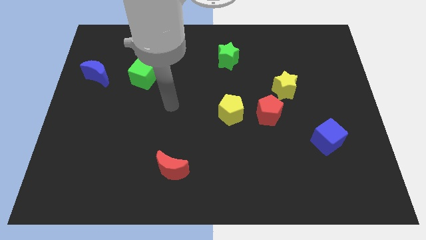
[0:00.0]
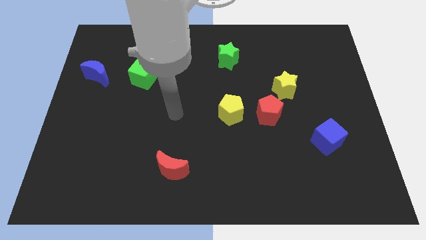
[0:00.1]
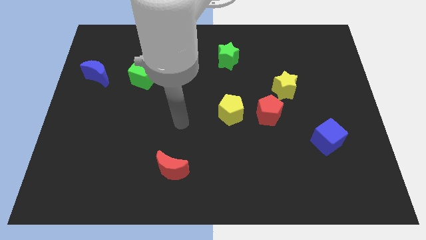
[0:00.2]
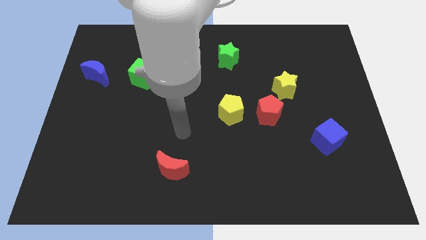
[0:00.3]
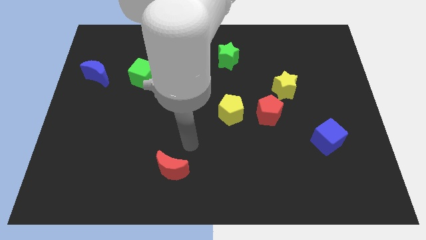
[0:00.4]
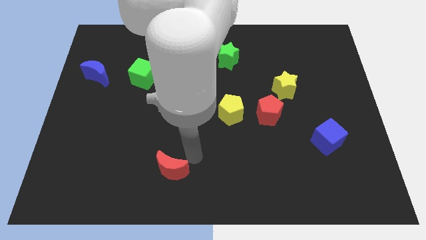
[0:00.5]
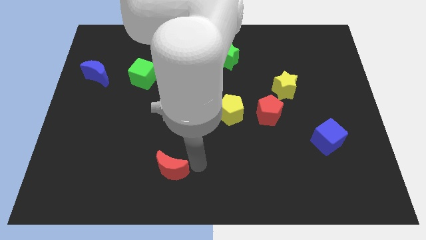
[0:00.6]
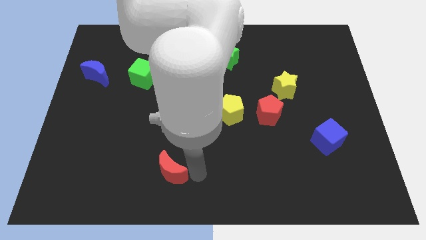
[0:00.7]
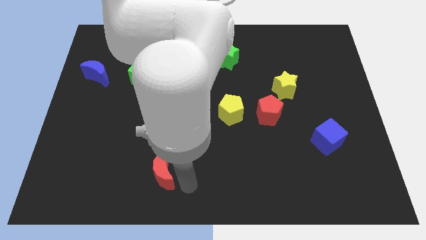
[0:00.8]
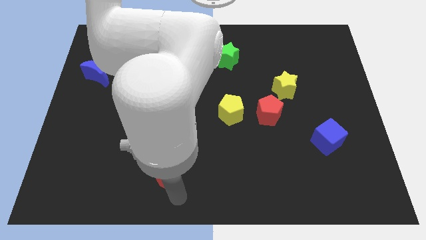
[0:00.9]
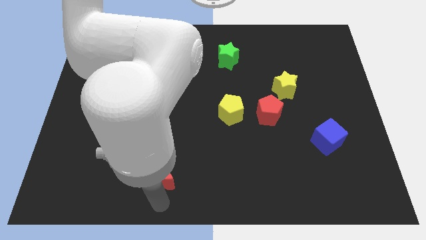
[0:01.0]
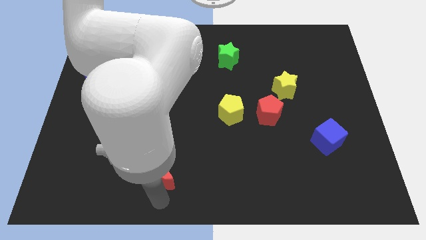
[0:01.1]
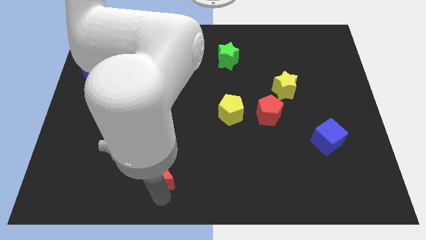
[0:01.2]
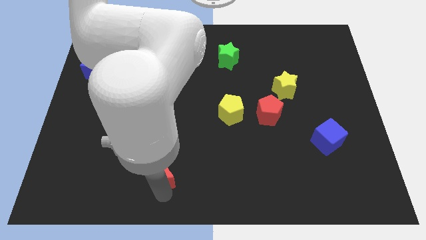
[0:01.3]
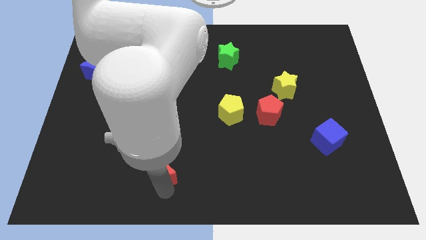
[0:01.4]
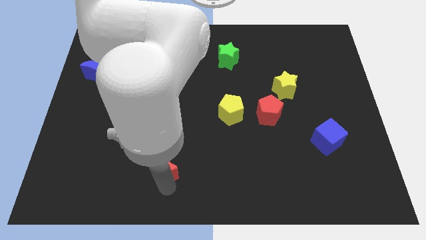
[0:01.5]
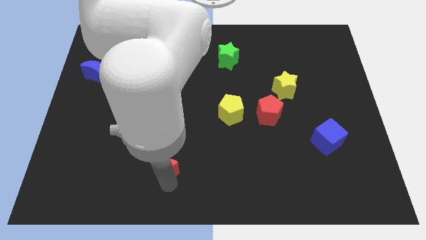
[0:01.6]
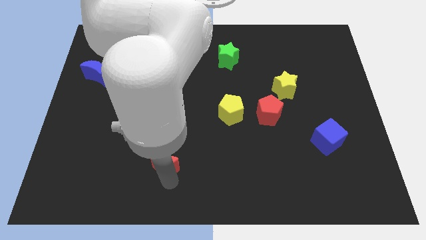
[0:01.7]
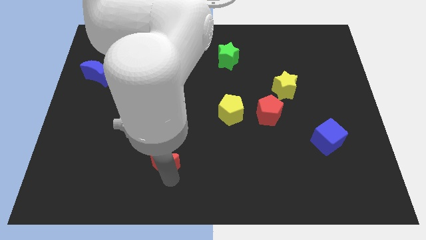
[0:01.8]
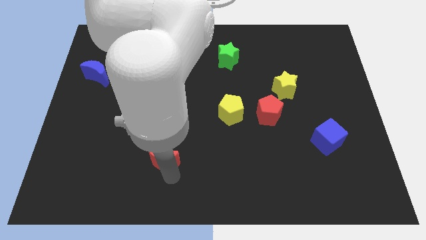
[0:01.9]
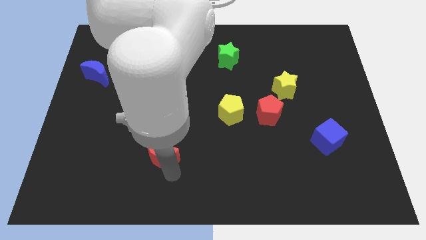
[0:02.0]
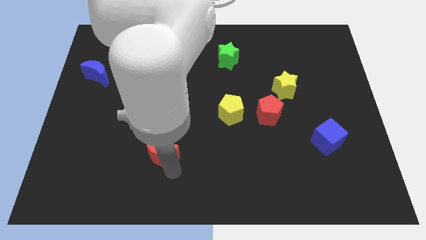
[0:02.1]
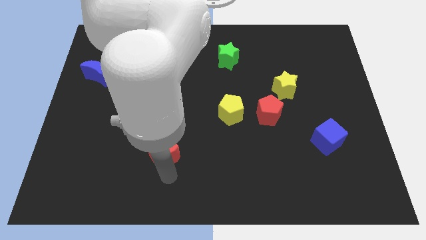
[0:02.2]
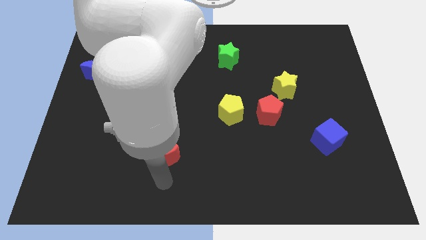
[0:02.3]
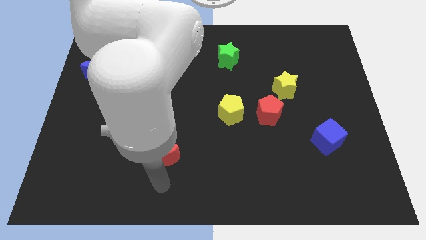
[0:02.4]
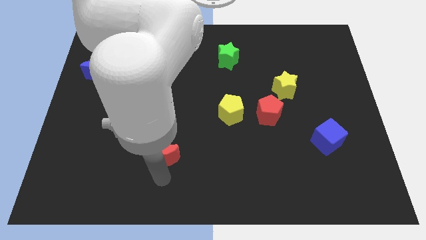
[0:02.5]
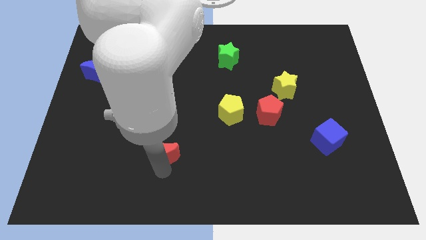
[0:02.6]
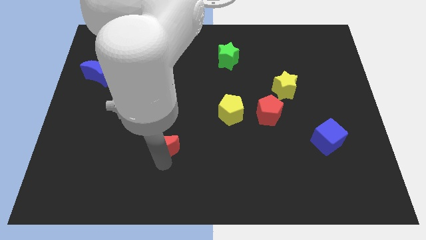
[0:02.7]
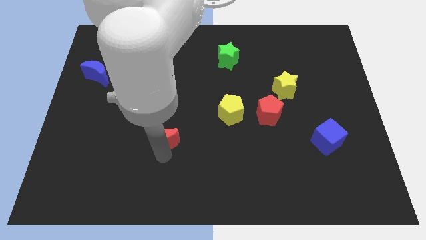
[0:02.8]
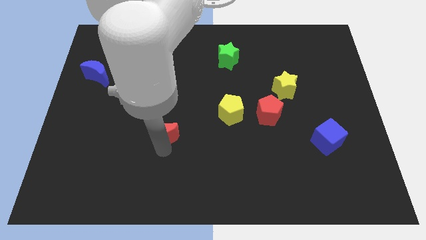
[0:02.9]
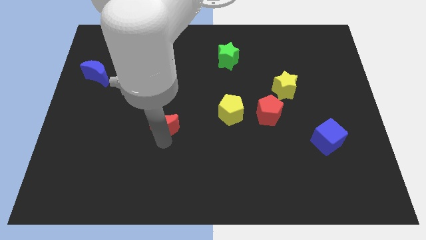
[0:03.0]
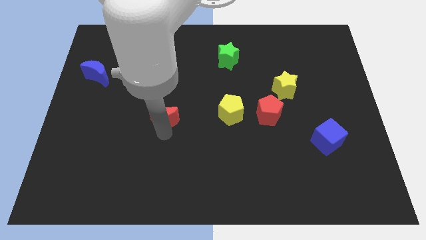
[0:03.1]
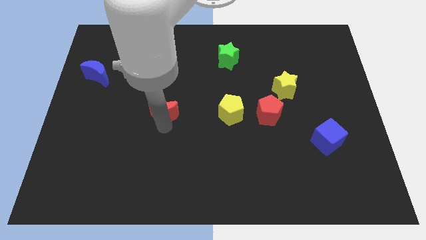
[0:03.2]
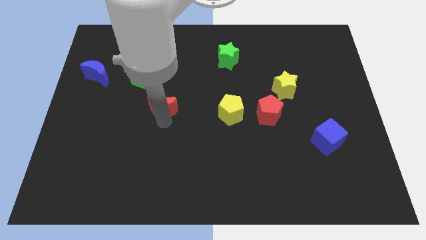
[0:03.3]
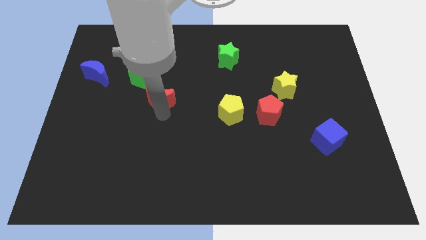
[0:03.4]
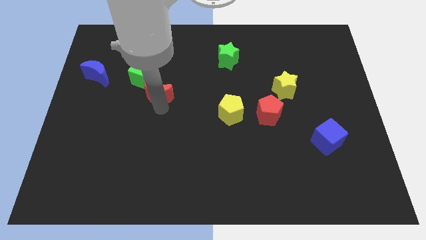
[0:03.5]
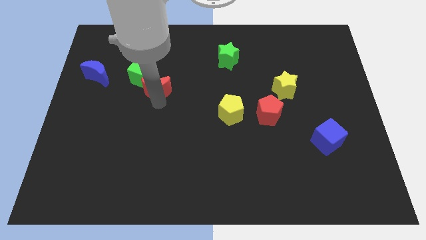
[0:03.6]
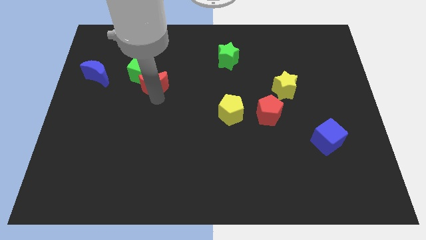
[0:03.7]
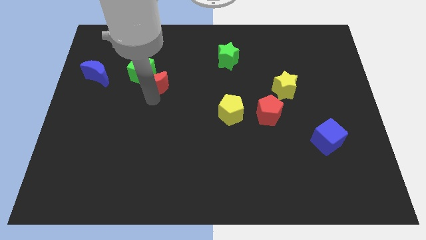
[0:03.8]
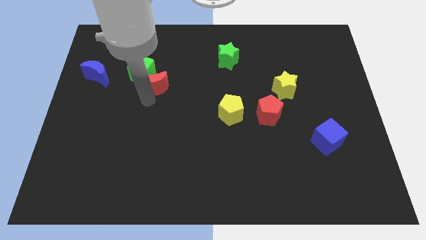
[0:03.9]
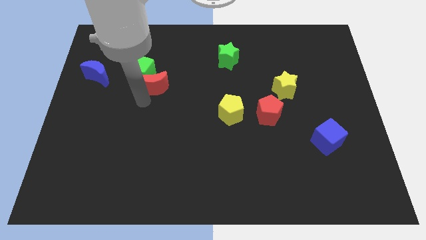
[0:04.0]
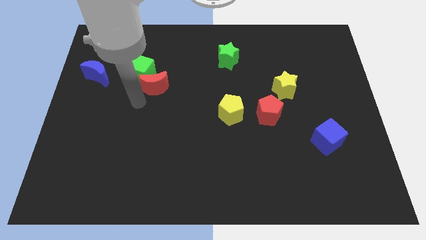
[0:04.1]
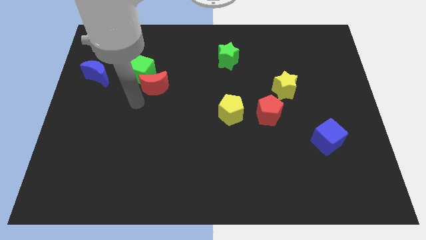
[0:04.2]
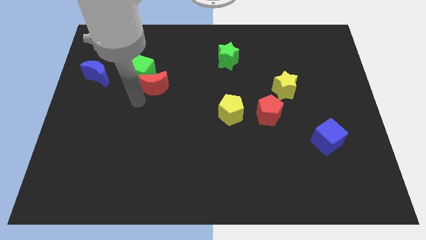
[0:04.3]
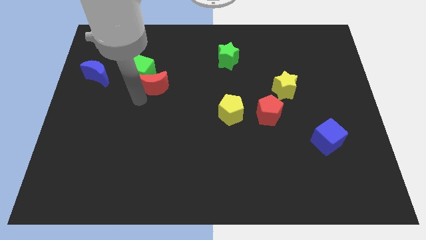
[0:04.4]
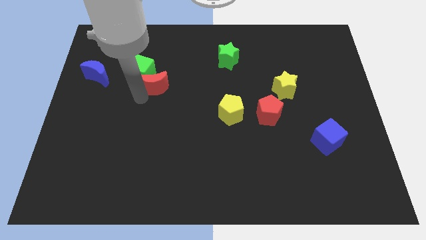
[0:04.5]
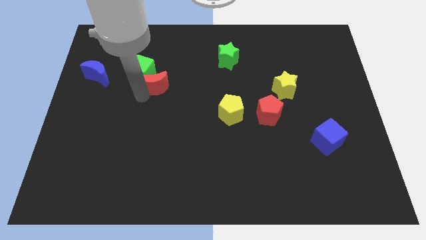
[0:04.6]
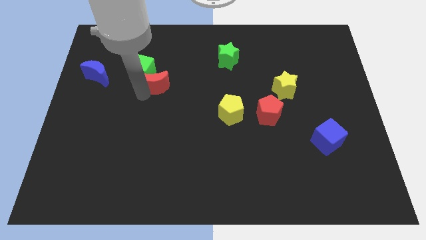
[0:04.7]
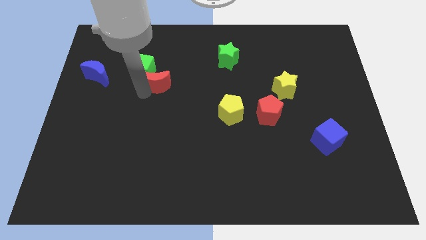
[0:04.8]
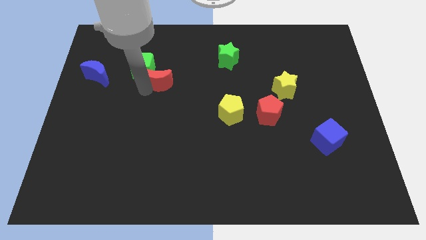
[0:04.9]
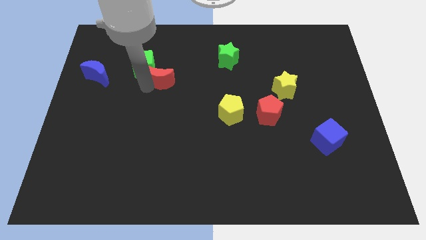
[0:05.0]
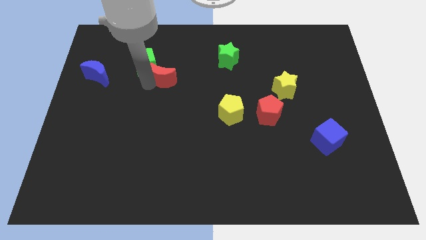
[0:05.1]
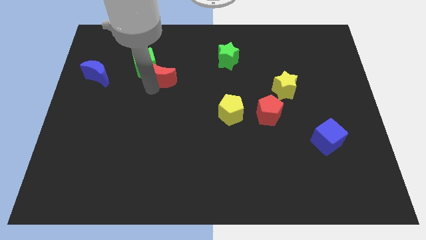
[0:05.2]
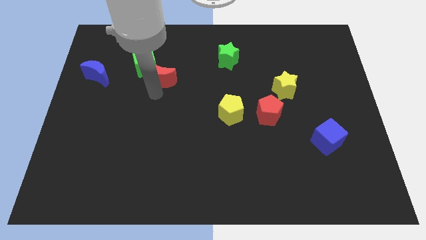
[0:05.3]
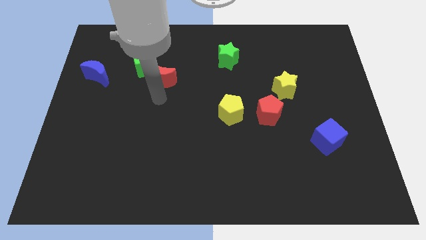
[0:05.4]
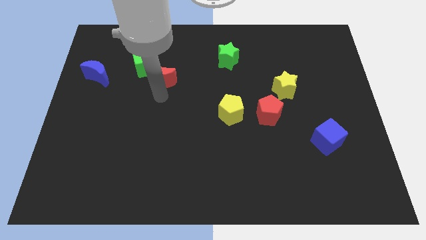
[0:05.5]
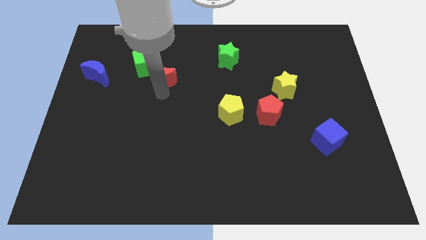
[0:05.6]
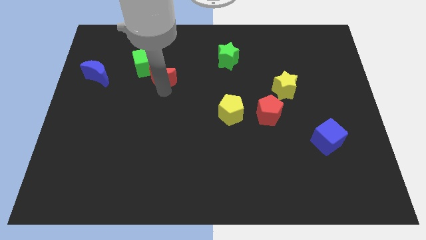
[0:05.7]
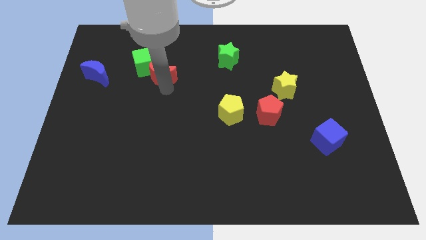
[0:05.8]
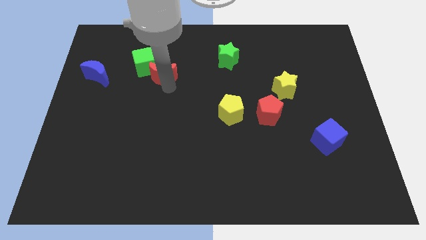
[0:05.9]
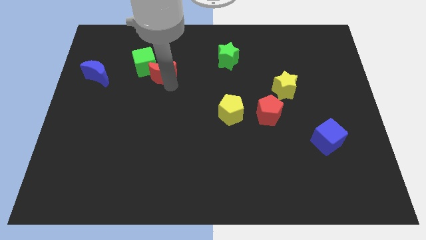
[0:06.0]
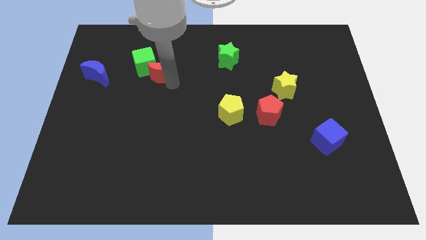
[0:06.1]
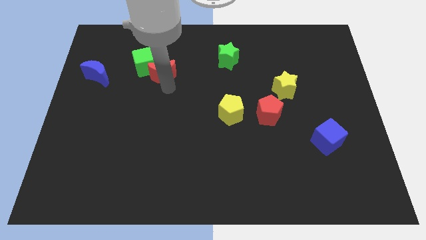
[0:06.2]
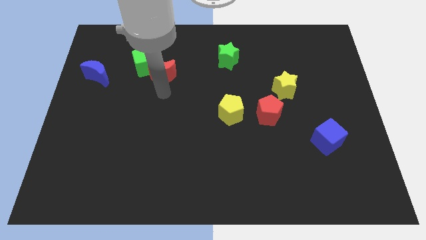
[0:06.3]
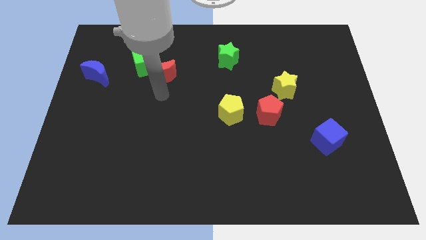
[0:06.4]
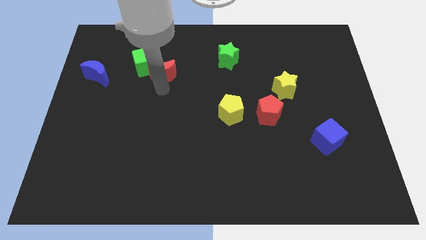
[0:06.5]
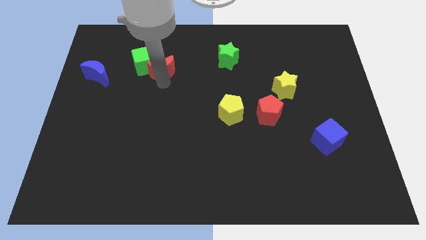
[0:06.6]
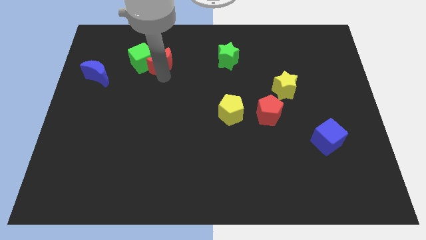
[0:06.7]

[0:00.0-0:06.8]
slide the red moon to the top right side of the green cube
